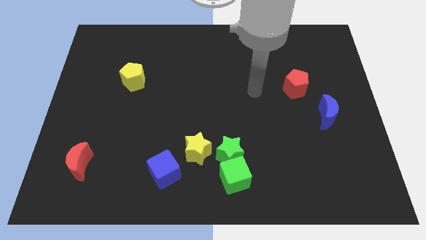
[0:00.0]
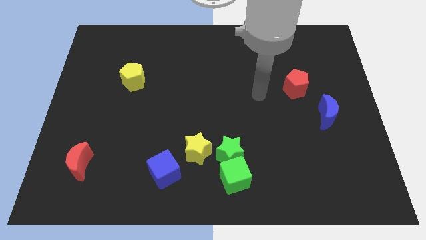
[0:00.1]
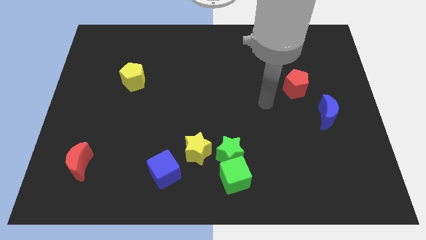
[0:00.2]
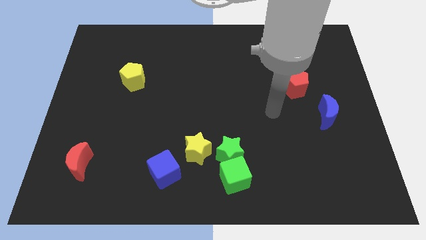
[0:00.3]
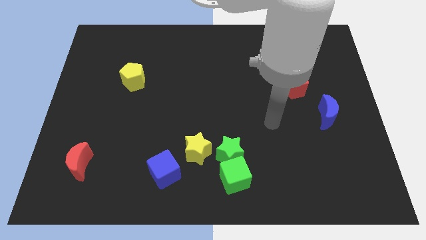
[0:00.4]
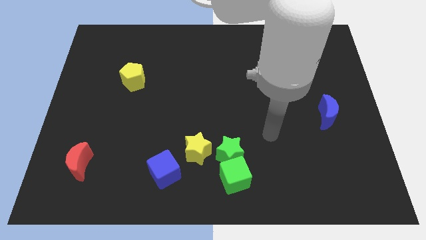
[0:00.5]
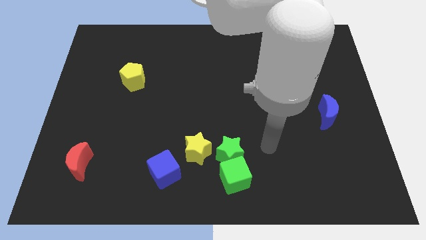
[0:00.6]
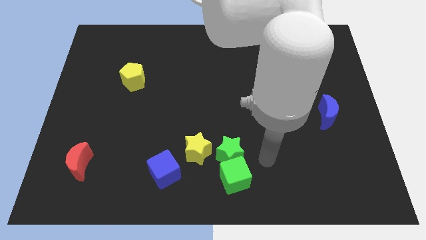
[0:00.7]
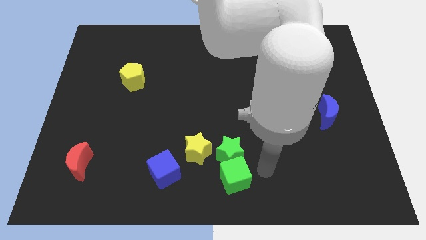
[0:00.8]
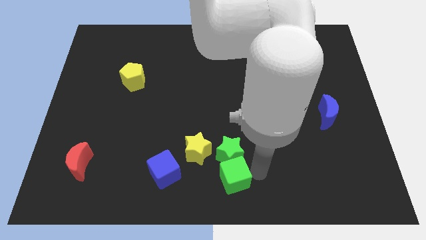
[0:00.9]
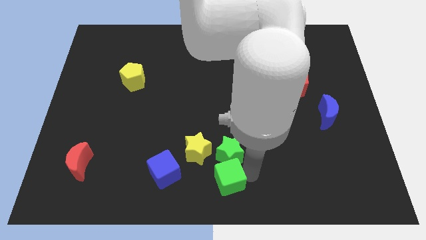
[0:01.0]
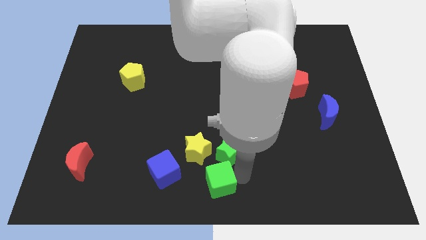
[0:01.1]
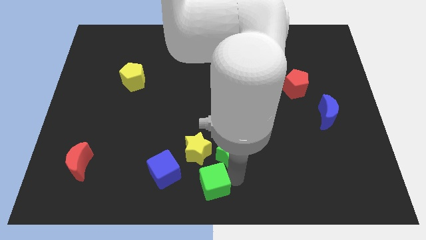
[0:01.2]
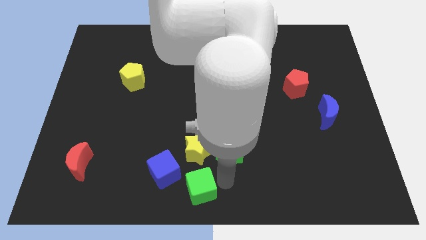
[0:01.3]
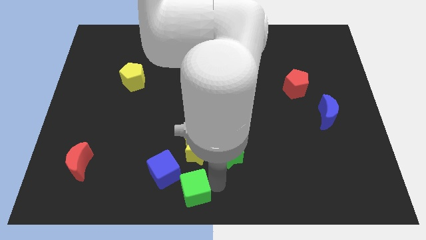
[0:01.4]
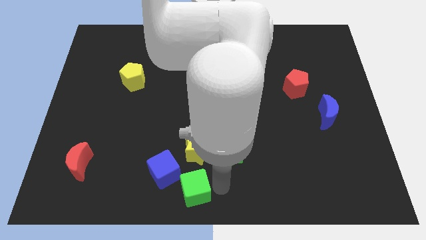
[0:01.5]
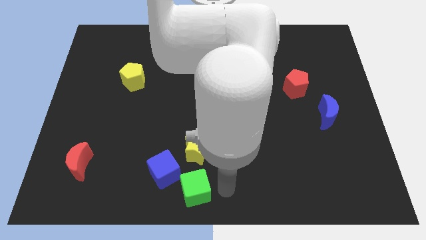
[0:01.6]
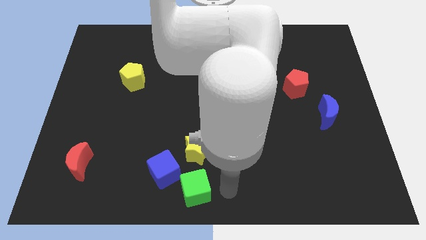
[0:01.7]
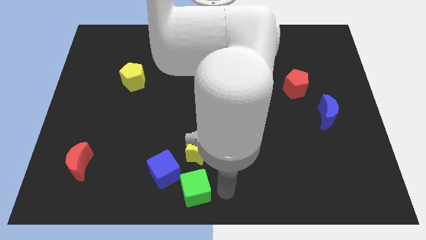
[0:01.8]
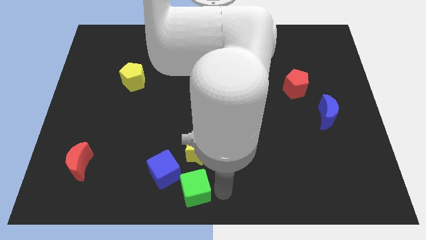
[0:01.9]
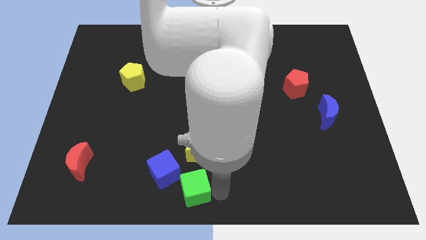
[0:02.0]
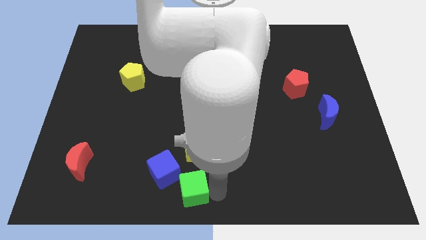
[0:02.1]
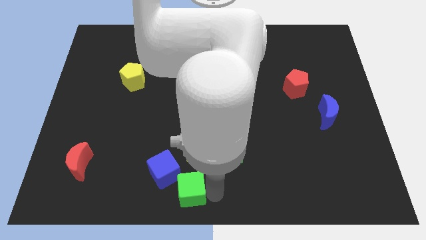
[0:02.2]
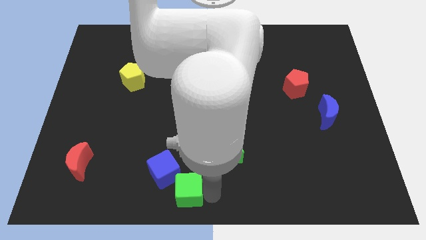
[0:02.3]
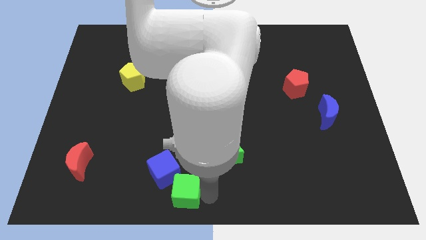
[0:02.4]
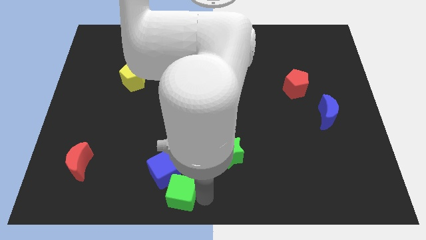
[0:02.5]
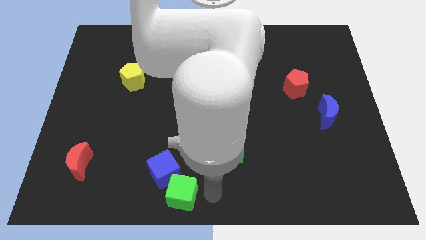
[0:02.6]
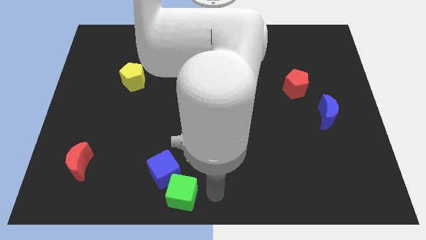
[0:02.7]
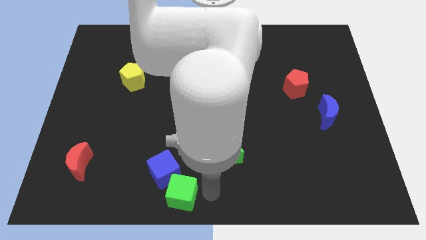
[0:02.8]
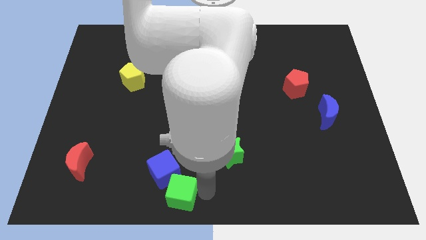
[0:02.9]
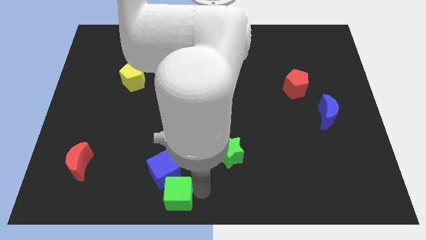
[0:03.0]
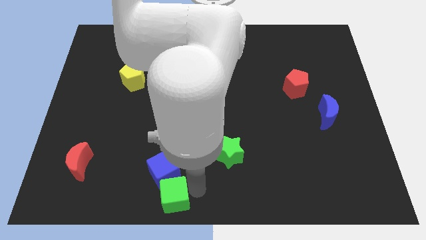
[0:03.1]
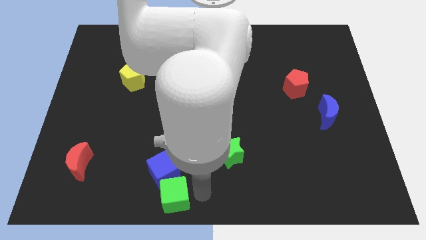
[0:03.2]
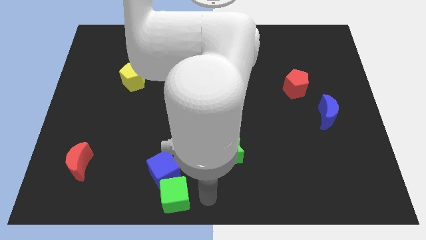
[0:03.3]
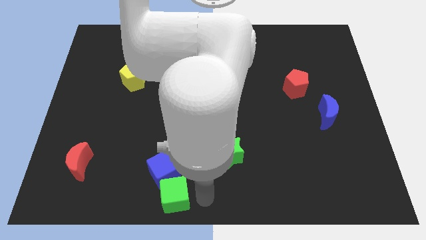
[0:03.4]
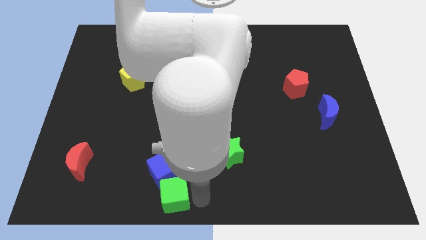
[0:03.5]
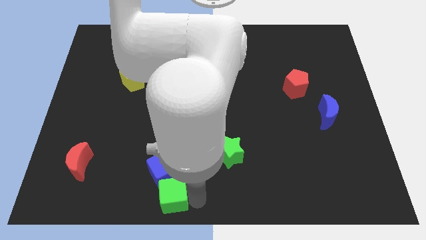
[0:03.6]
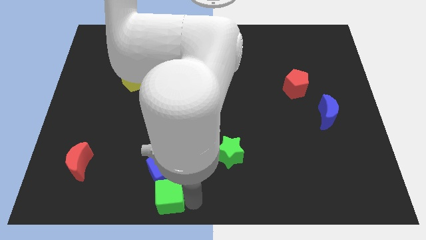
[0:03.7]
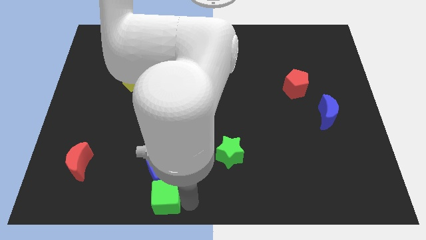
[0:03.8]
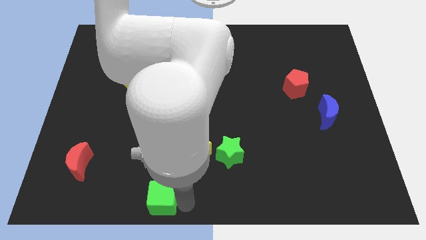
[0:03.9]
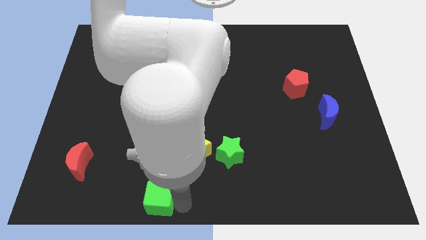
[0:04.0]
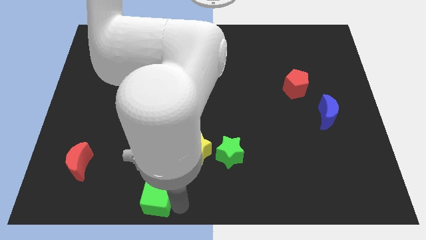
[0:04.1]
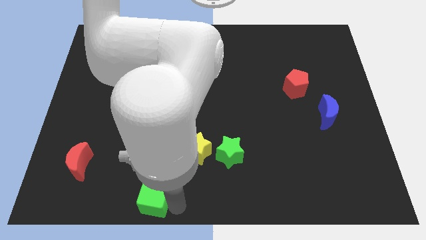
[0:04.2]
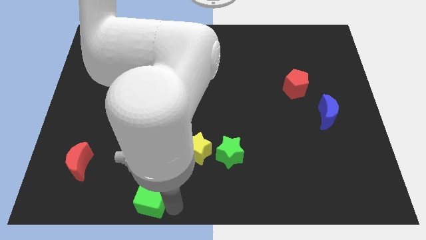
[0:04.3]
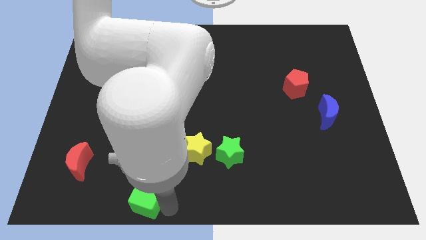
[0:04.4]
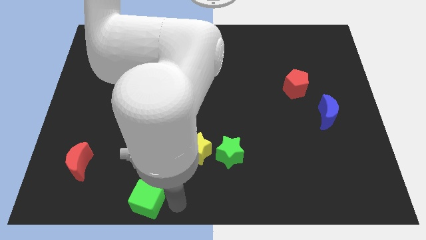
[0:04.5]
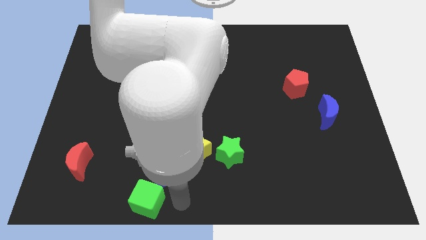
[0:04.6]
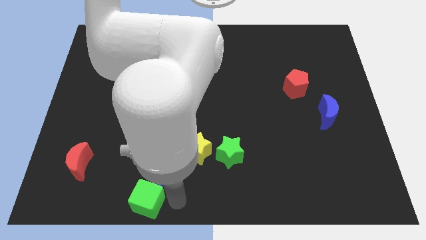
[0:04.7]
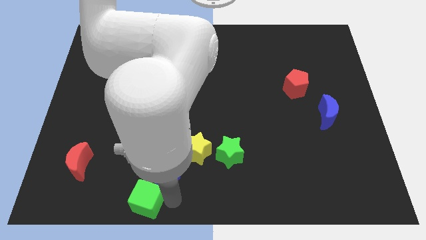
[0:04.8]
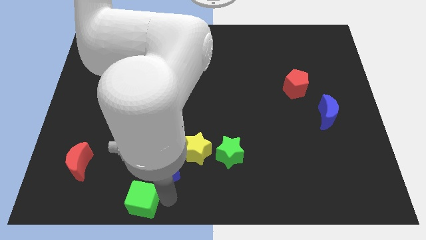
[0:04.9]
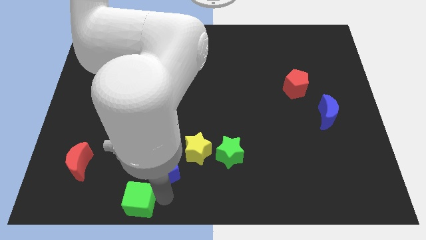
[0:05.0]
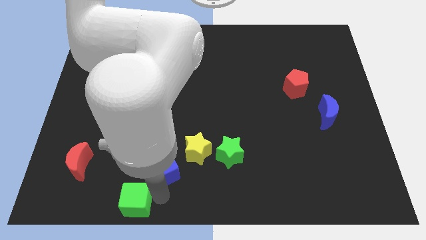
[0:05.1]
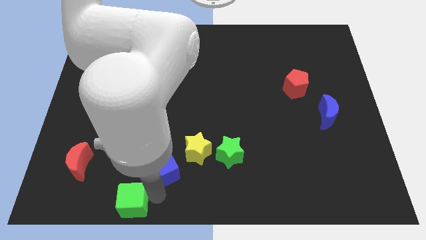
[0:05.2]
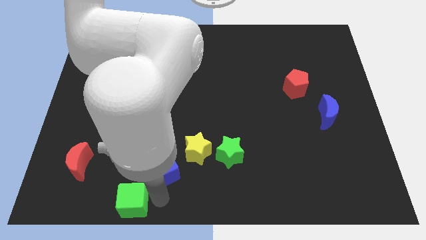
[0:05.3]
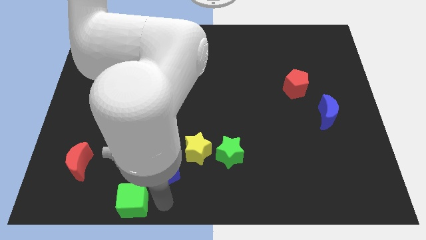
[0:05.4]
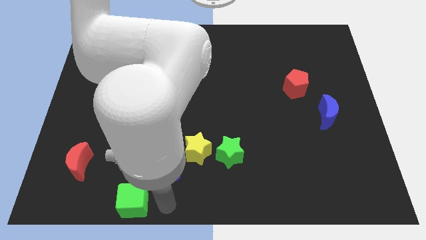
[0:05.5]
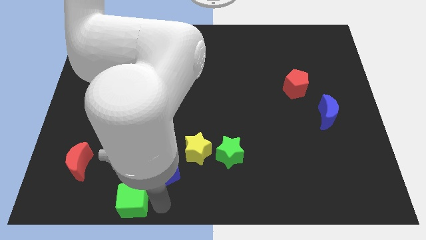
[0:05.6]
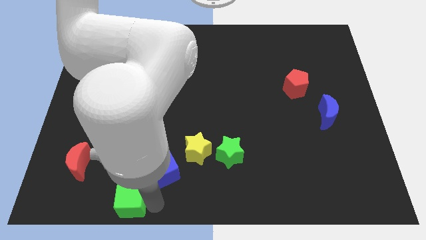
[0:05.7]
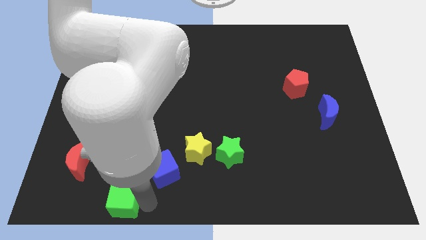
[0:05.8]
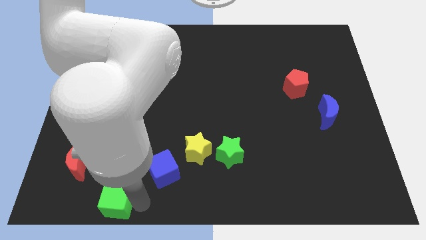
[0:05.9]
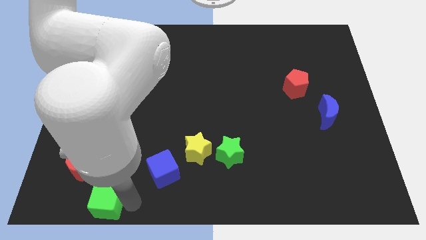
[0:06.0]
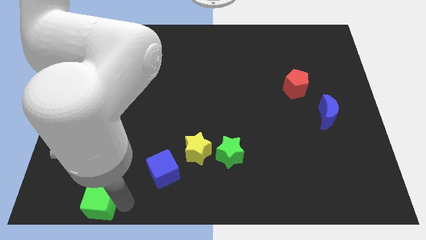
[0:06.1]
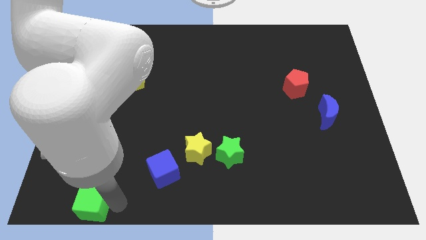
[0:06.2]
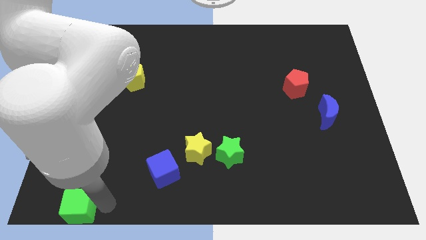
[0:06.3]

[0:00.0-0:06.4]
push the green cube to the bottom left corner

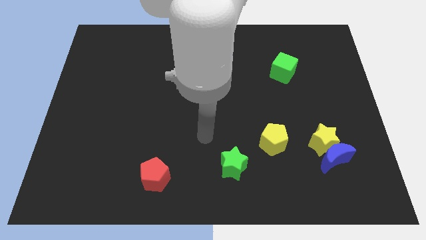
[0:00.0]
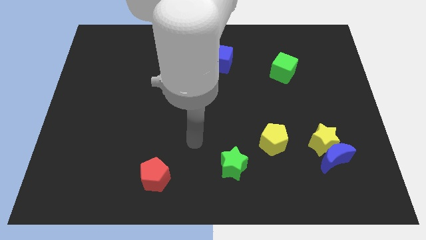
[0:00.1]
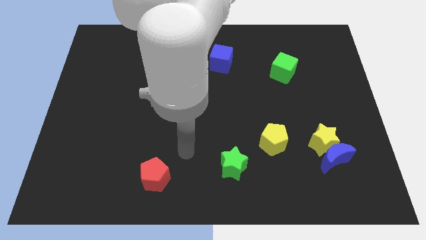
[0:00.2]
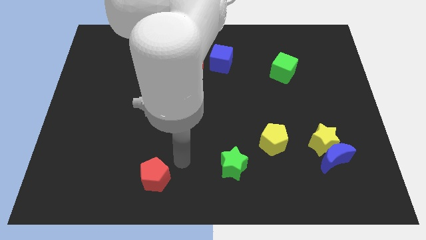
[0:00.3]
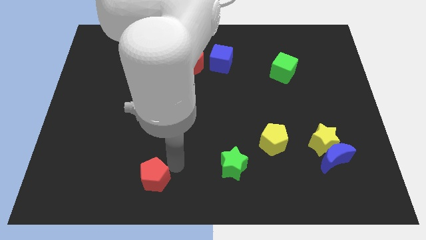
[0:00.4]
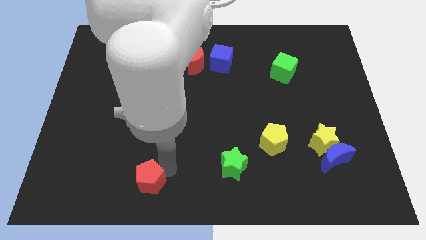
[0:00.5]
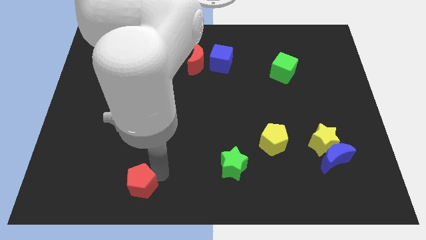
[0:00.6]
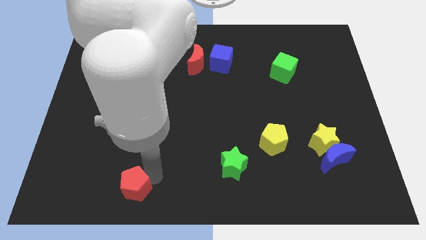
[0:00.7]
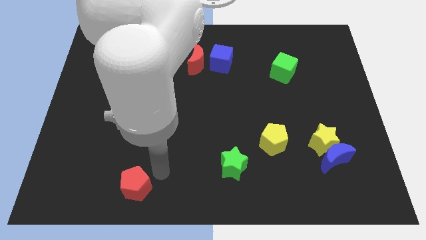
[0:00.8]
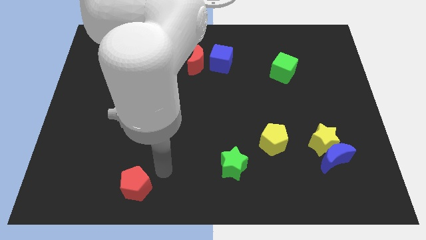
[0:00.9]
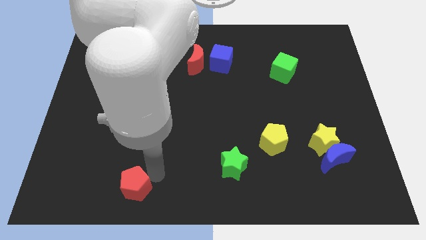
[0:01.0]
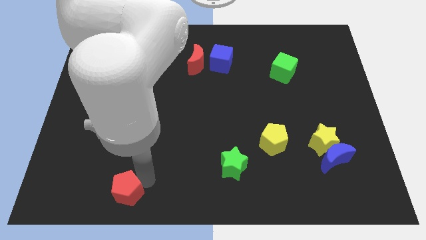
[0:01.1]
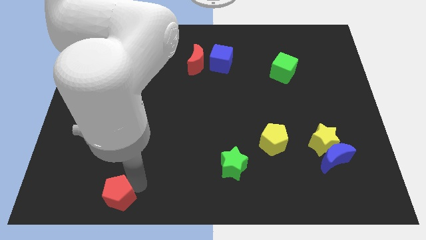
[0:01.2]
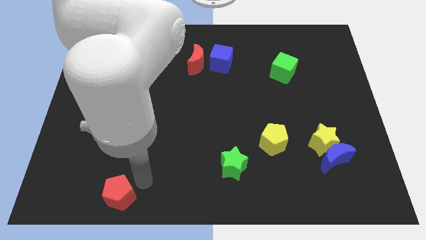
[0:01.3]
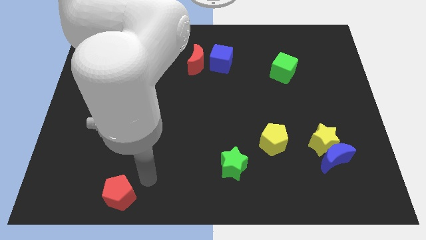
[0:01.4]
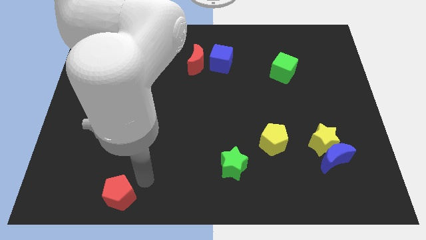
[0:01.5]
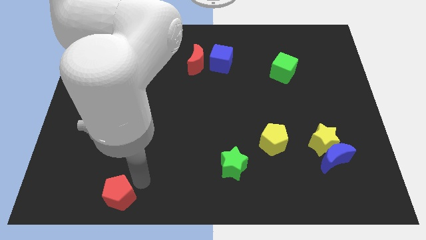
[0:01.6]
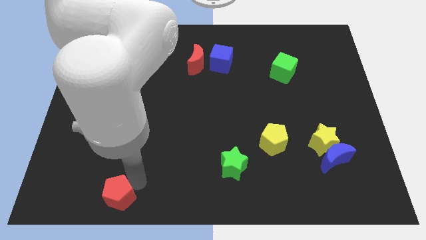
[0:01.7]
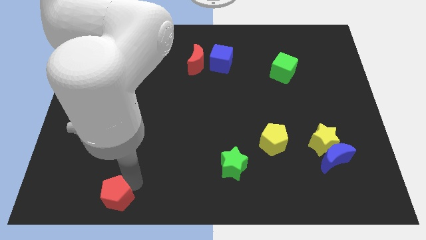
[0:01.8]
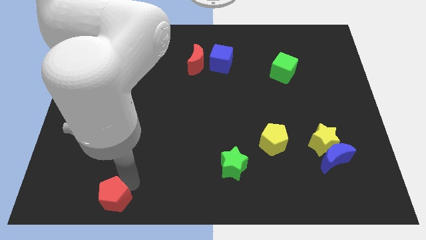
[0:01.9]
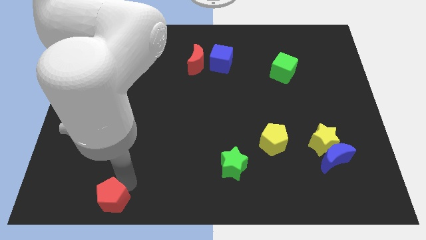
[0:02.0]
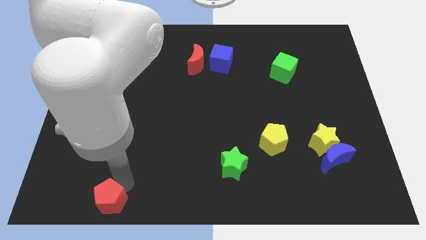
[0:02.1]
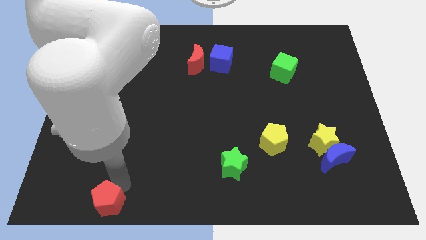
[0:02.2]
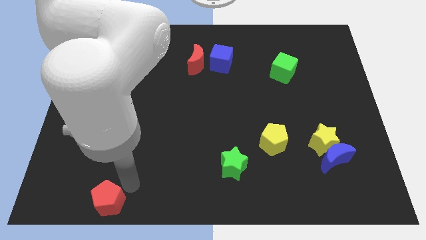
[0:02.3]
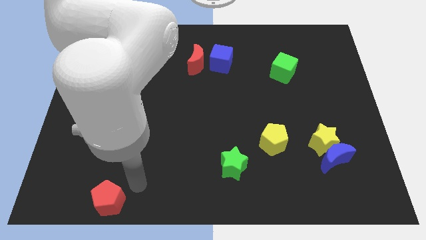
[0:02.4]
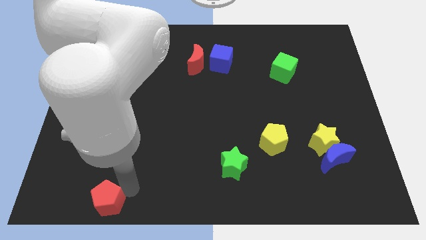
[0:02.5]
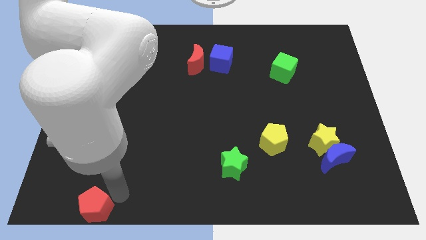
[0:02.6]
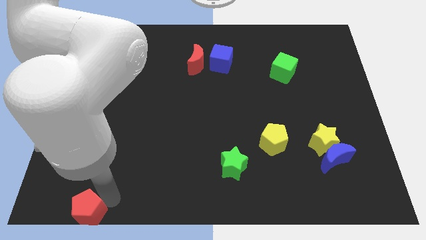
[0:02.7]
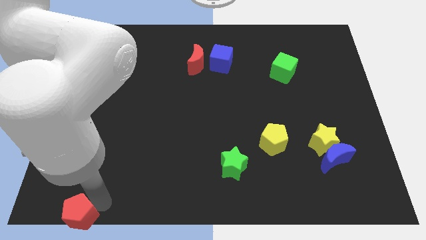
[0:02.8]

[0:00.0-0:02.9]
slide the red pentagon to the lower left corner
